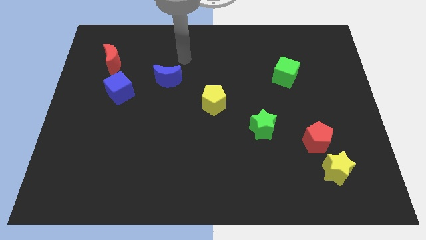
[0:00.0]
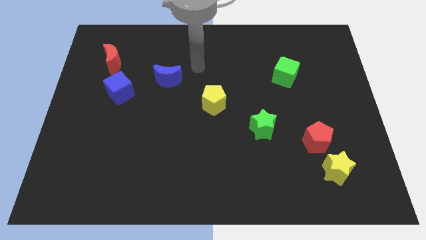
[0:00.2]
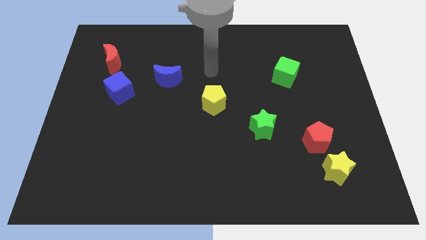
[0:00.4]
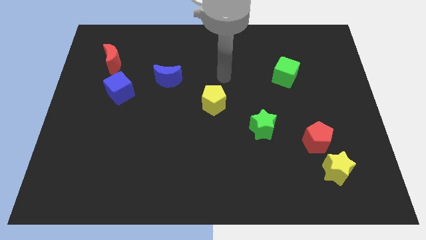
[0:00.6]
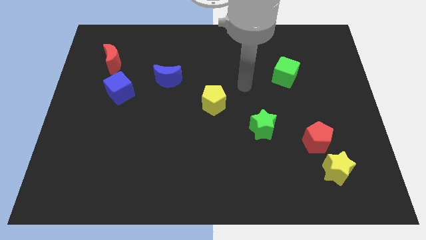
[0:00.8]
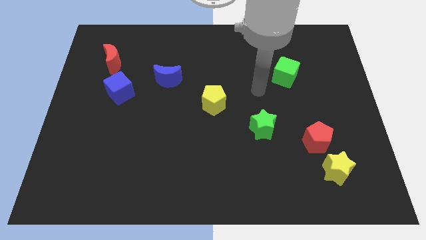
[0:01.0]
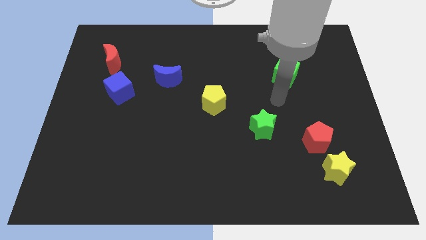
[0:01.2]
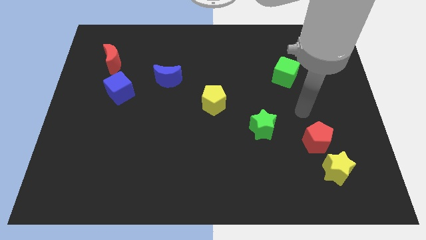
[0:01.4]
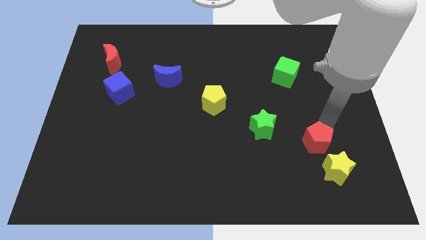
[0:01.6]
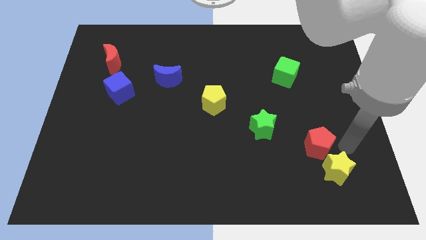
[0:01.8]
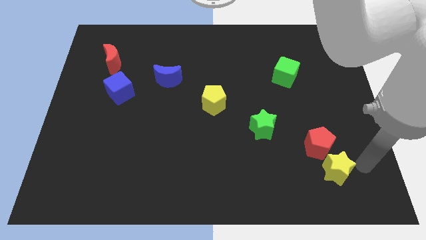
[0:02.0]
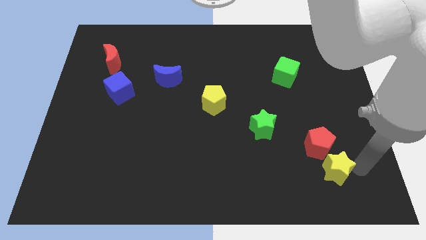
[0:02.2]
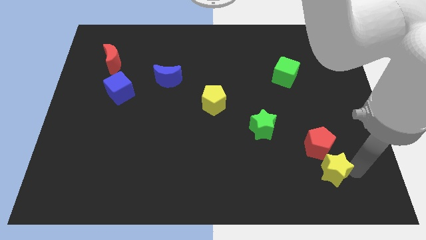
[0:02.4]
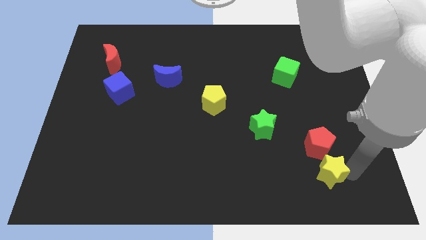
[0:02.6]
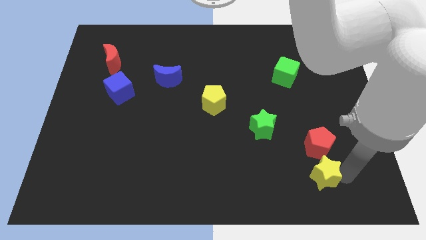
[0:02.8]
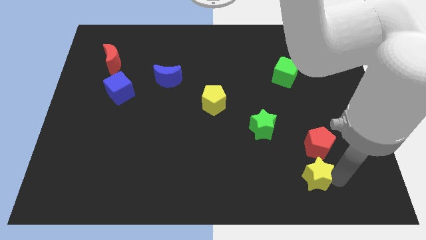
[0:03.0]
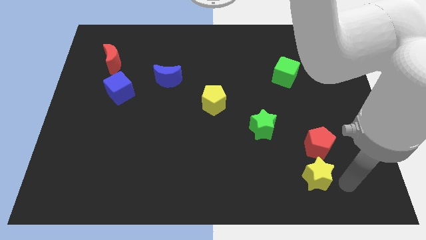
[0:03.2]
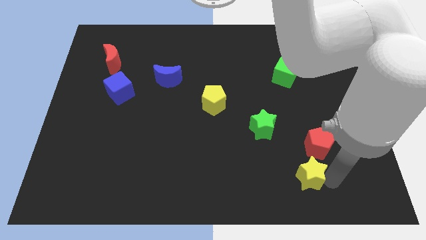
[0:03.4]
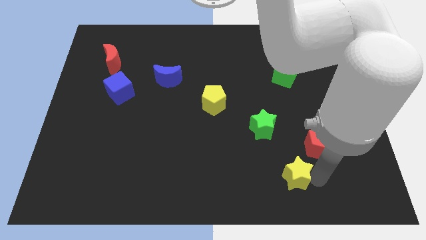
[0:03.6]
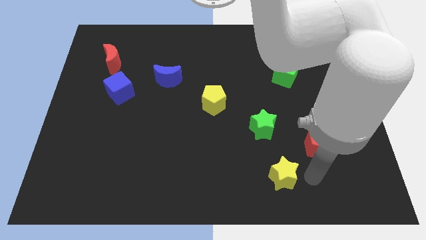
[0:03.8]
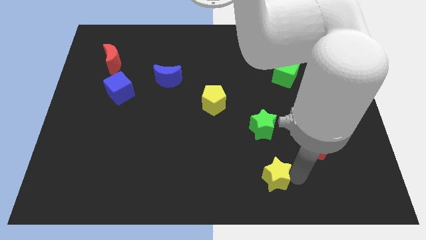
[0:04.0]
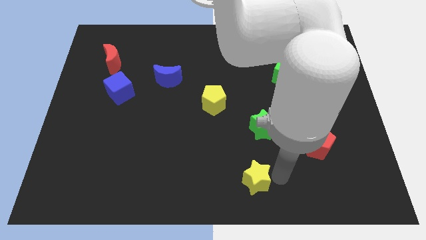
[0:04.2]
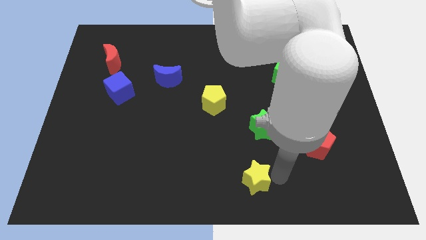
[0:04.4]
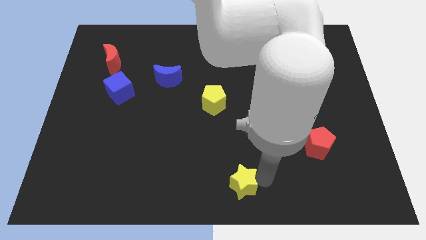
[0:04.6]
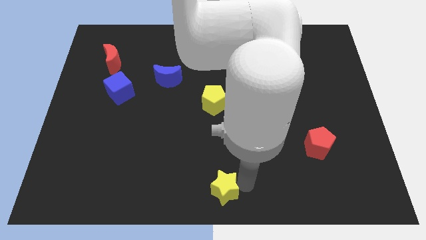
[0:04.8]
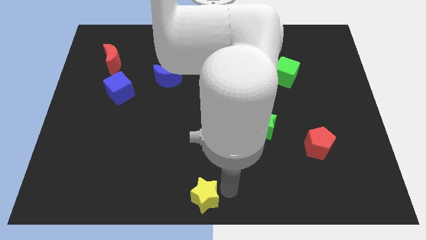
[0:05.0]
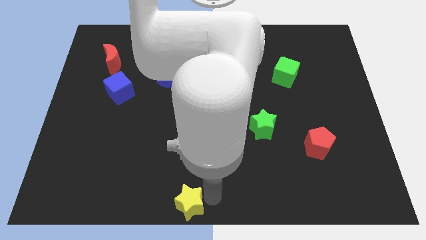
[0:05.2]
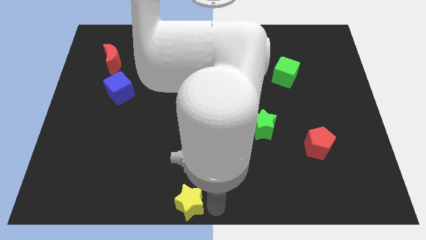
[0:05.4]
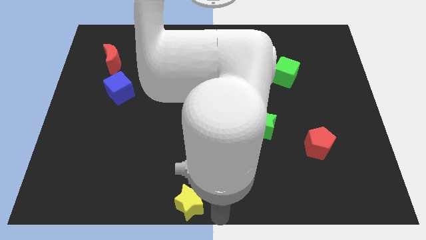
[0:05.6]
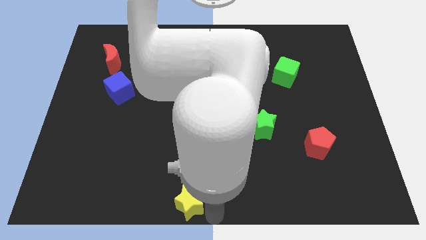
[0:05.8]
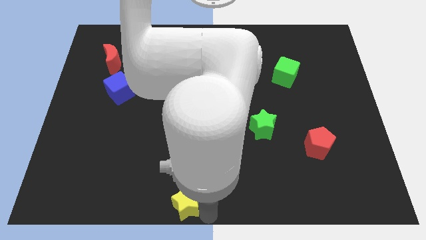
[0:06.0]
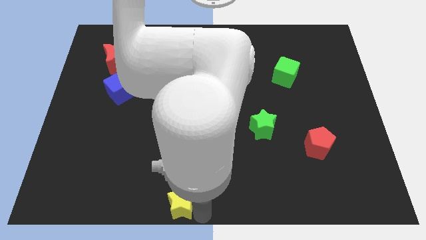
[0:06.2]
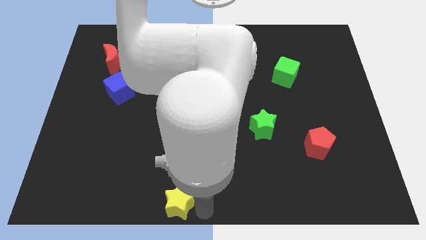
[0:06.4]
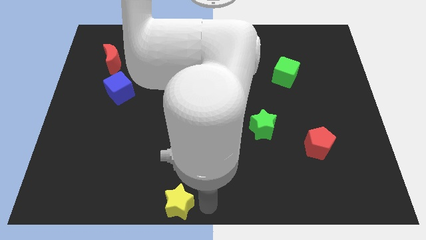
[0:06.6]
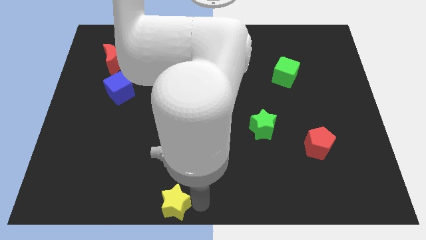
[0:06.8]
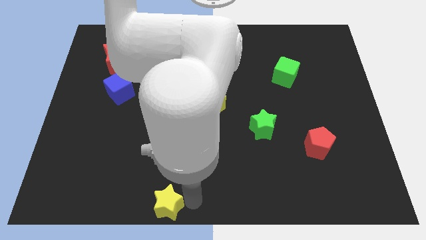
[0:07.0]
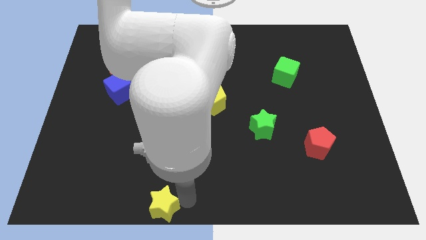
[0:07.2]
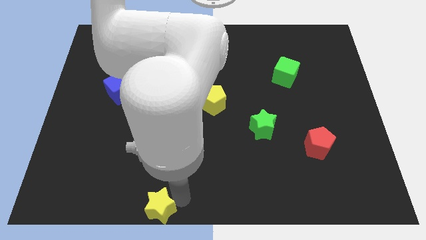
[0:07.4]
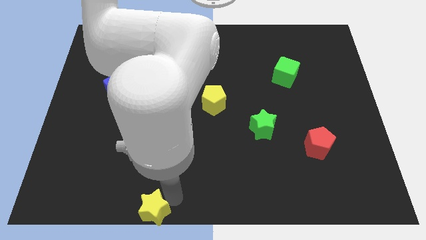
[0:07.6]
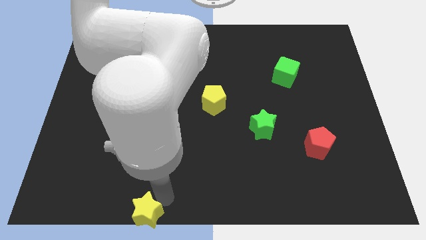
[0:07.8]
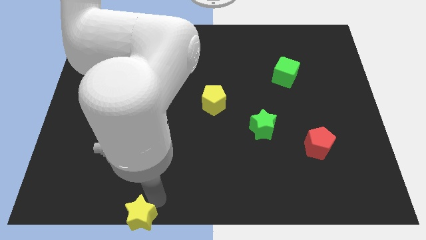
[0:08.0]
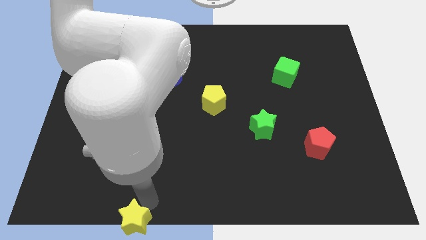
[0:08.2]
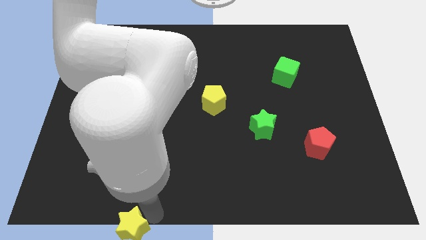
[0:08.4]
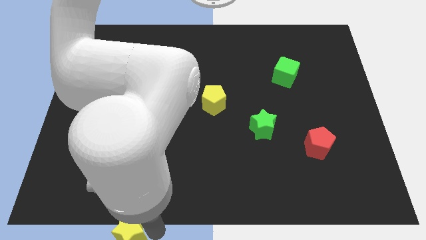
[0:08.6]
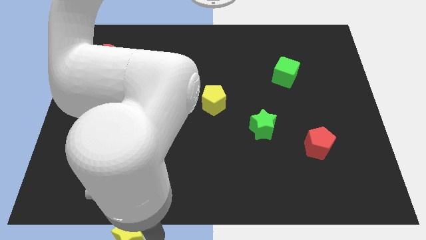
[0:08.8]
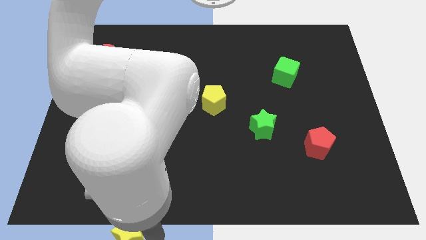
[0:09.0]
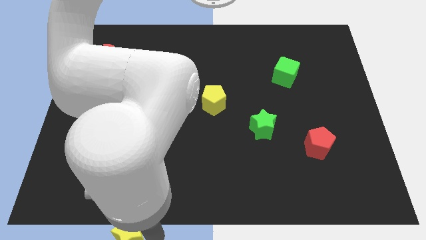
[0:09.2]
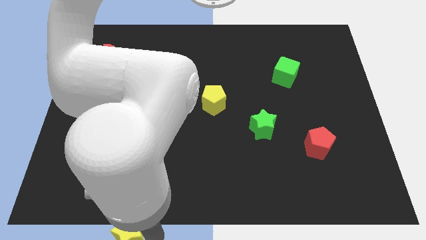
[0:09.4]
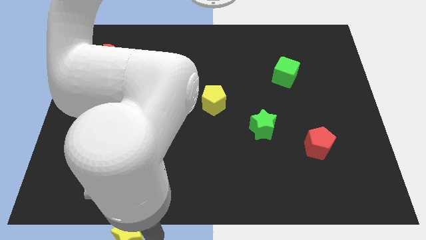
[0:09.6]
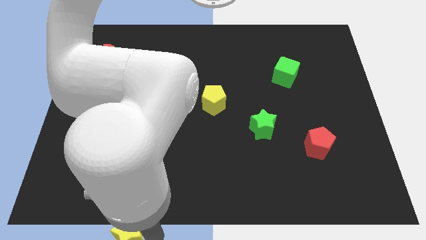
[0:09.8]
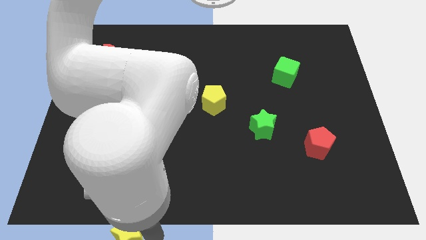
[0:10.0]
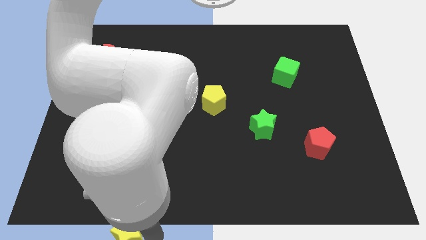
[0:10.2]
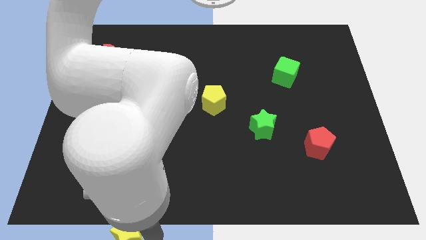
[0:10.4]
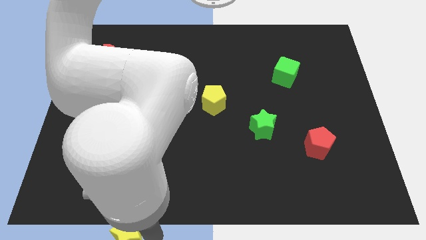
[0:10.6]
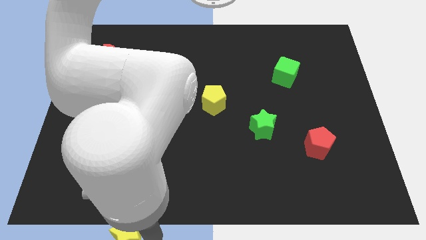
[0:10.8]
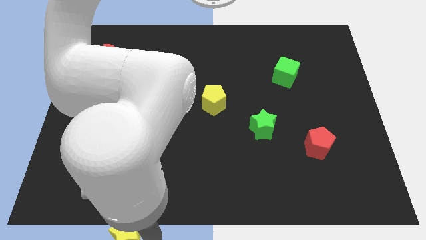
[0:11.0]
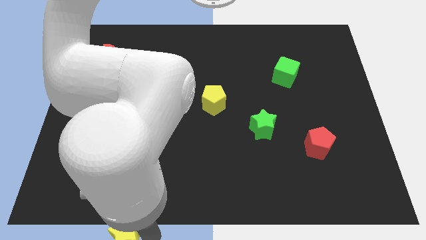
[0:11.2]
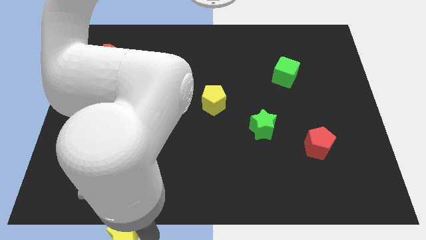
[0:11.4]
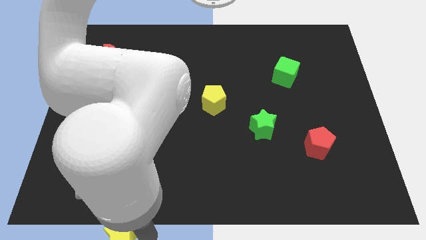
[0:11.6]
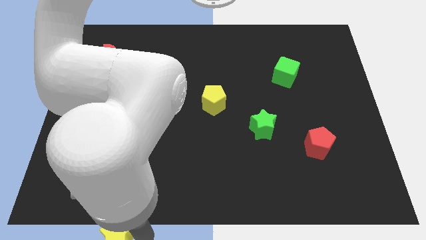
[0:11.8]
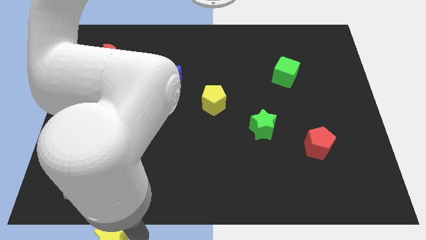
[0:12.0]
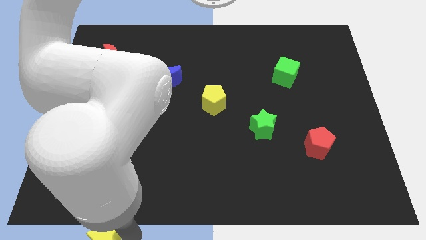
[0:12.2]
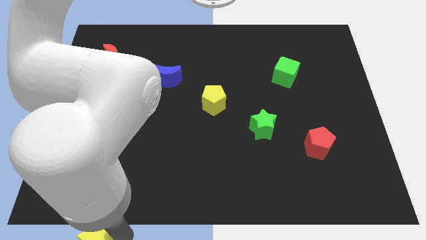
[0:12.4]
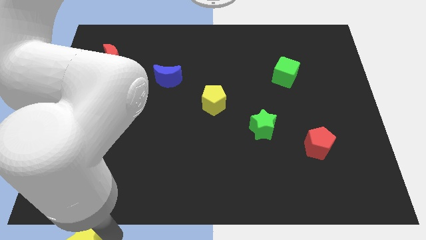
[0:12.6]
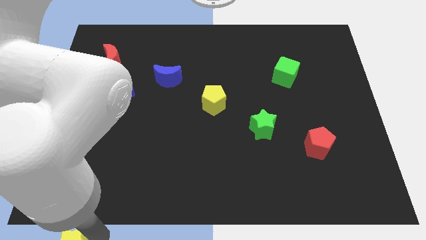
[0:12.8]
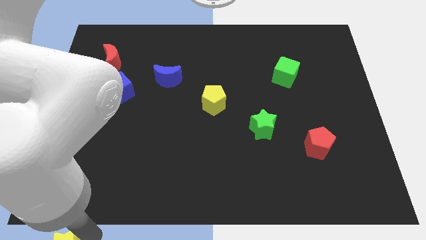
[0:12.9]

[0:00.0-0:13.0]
move the yellow star to the bottom left of the board
